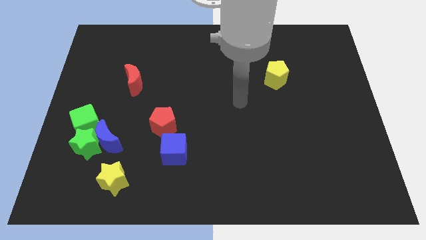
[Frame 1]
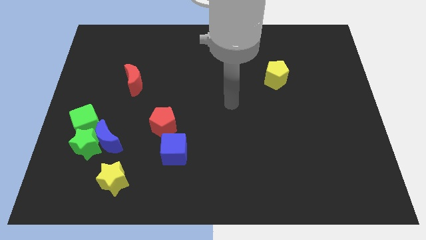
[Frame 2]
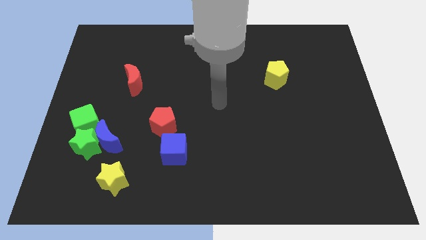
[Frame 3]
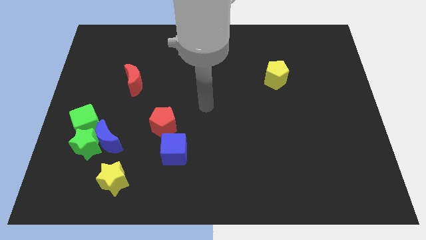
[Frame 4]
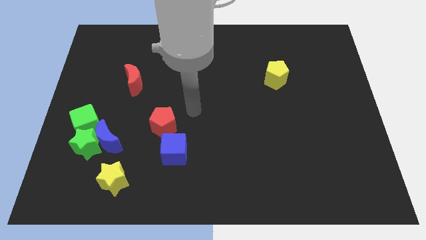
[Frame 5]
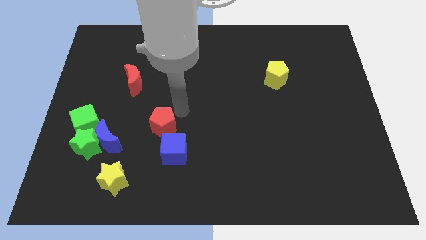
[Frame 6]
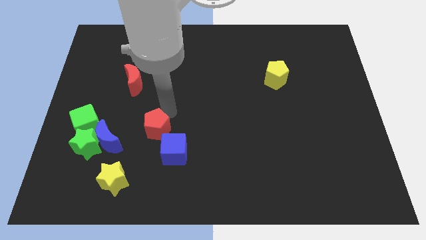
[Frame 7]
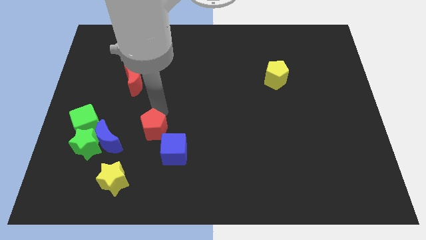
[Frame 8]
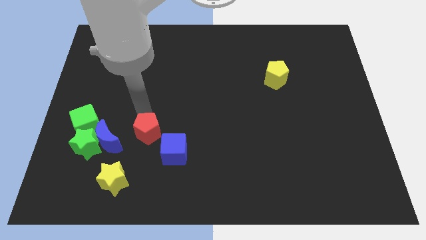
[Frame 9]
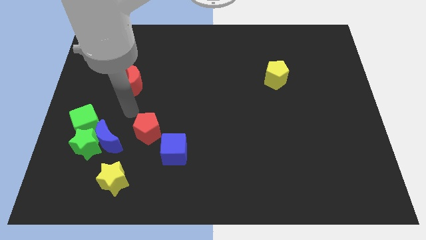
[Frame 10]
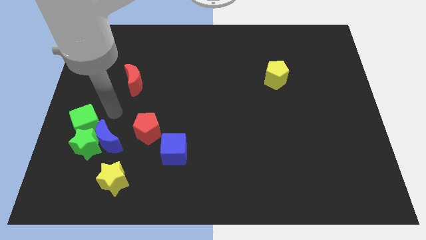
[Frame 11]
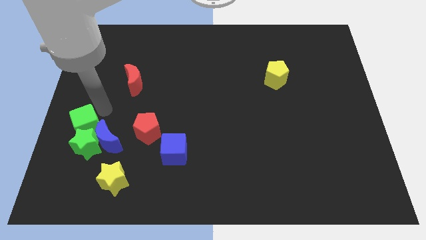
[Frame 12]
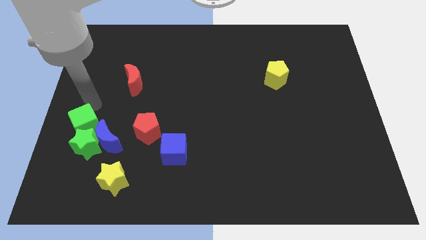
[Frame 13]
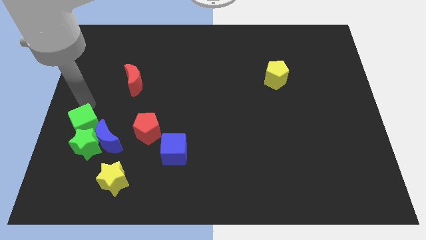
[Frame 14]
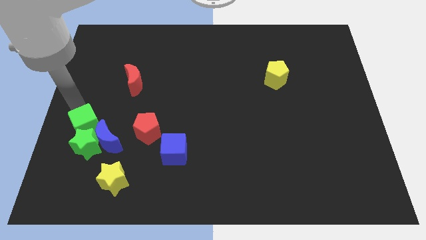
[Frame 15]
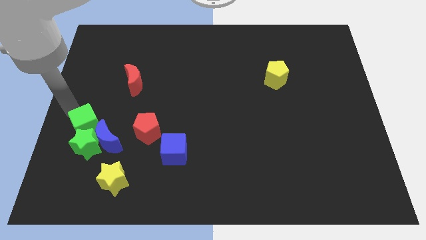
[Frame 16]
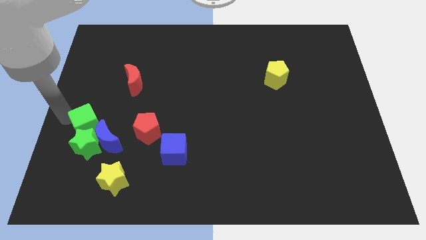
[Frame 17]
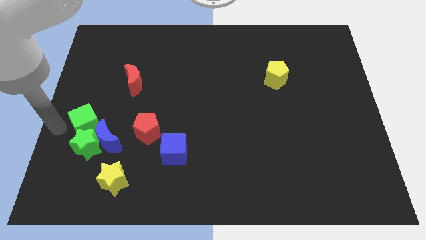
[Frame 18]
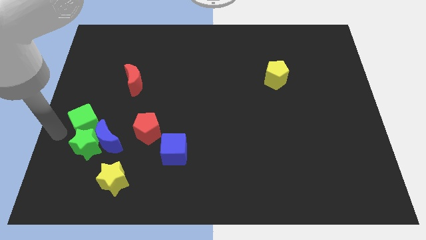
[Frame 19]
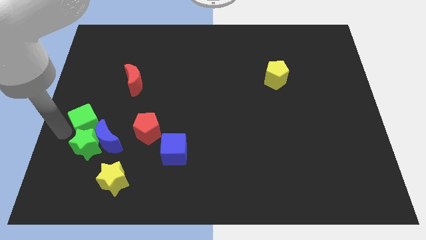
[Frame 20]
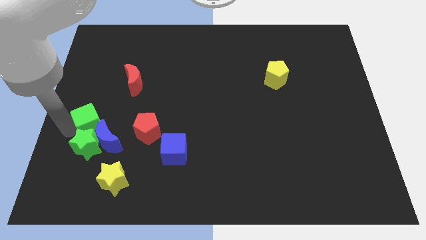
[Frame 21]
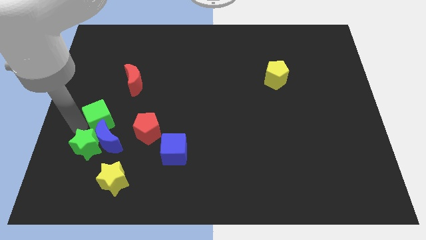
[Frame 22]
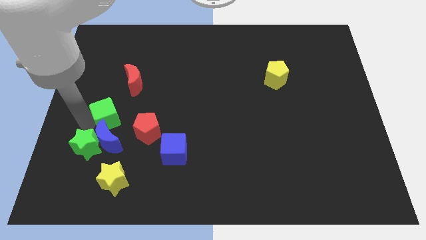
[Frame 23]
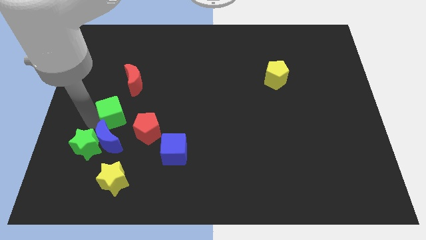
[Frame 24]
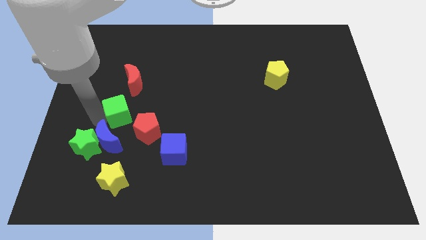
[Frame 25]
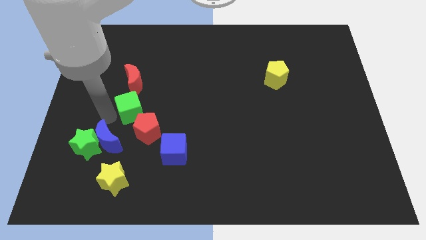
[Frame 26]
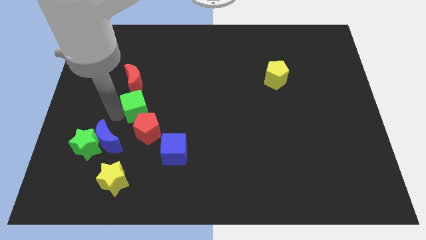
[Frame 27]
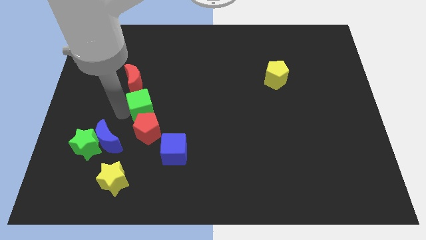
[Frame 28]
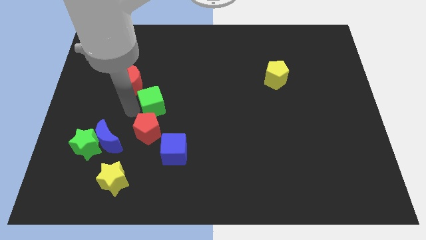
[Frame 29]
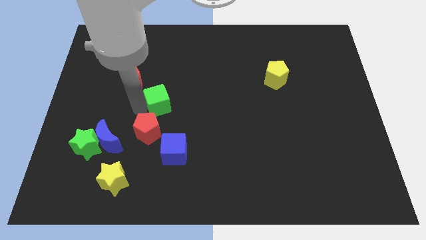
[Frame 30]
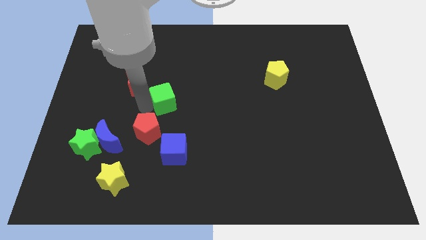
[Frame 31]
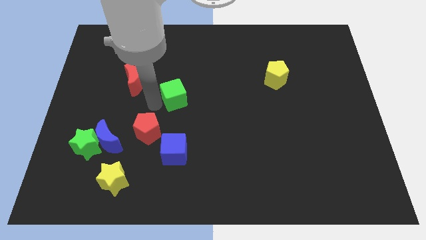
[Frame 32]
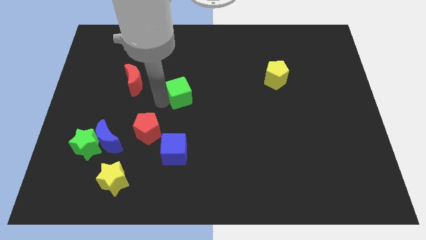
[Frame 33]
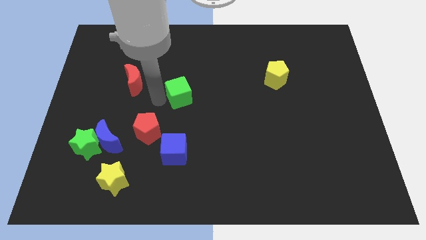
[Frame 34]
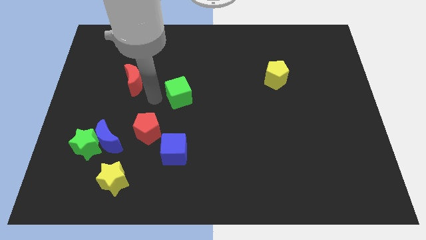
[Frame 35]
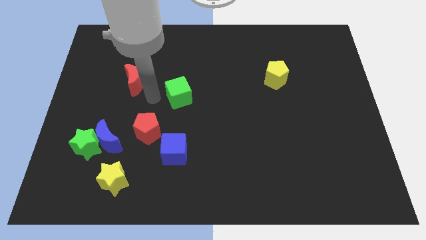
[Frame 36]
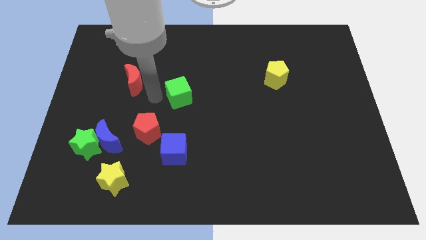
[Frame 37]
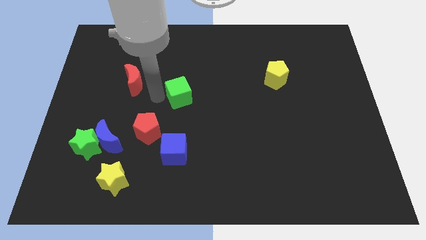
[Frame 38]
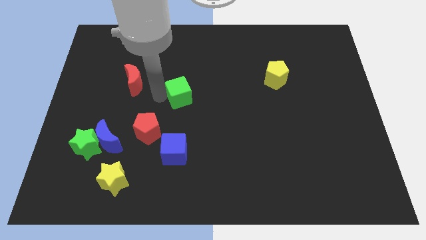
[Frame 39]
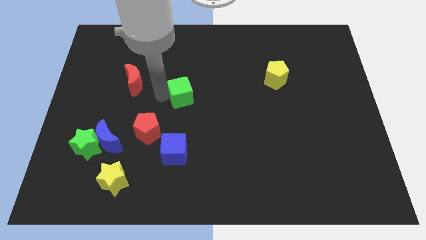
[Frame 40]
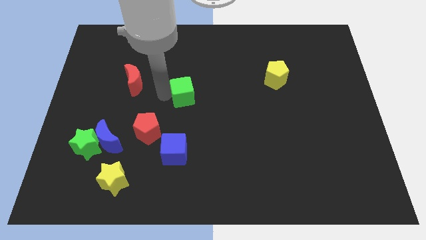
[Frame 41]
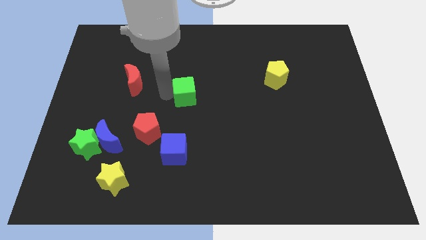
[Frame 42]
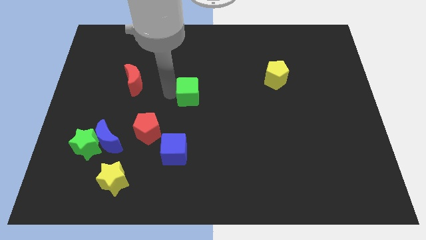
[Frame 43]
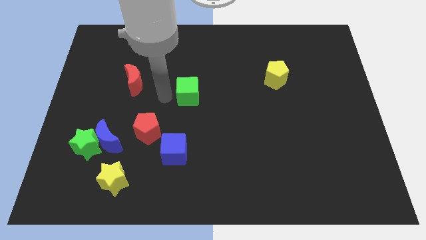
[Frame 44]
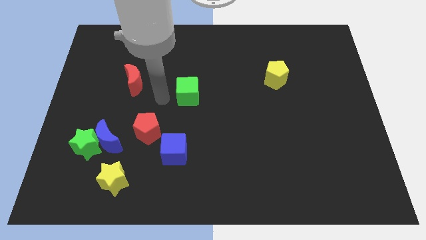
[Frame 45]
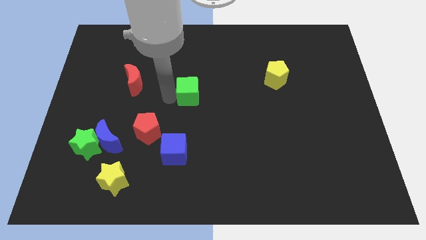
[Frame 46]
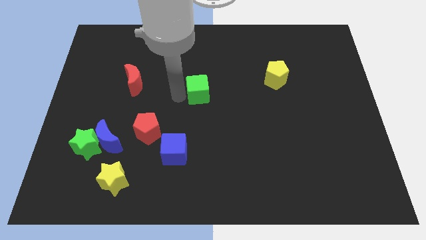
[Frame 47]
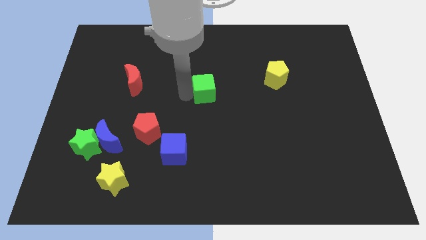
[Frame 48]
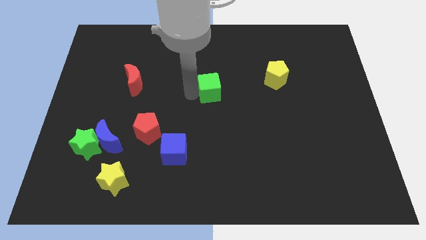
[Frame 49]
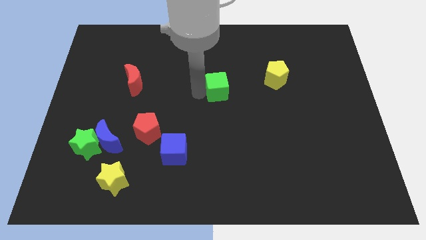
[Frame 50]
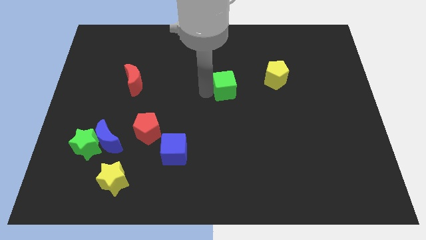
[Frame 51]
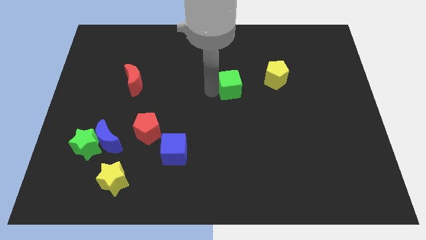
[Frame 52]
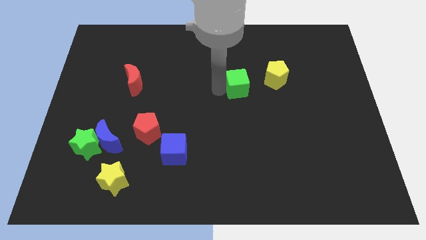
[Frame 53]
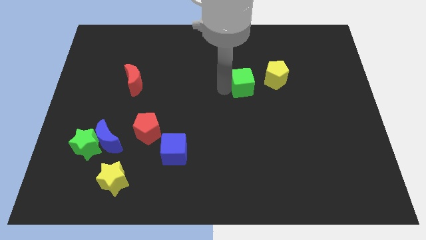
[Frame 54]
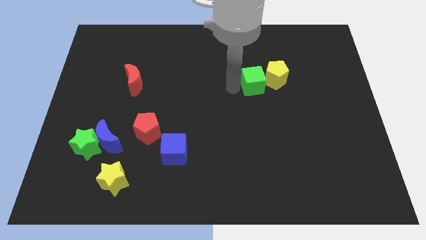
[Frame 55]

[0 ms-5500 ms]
push the green cube towards the yellow pentagon

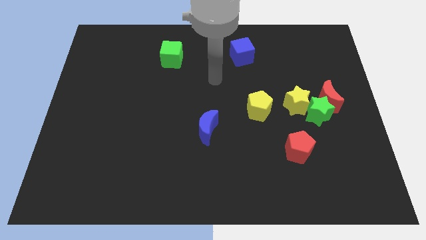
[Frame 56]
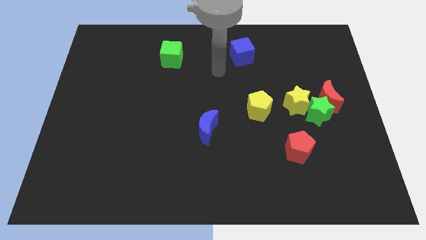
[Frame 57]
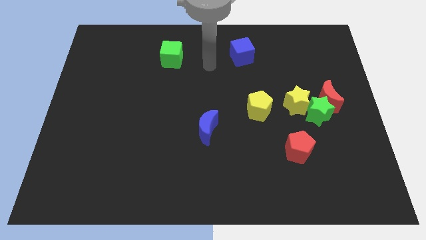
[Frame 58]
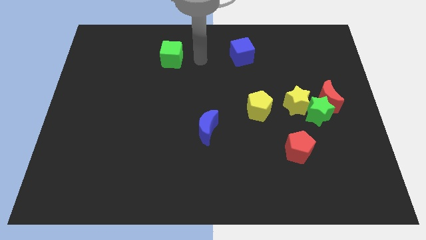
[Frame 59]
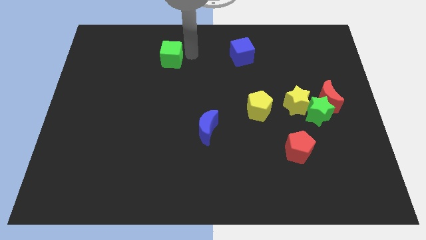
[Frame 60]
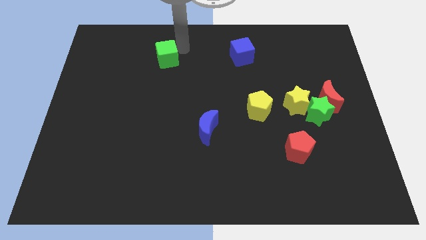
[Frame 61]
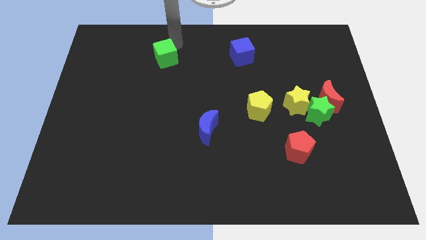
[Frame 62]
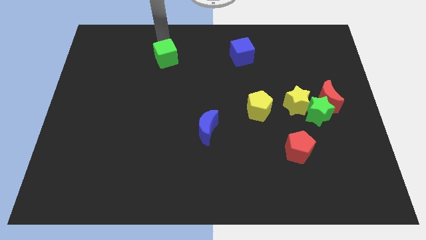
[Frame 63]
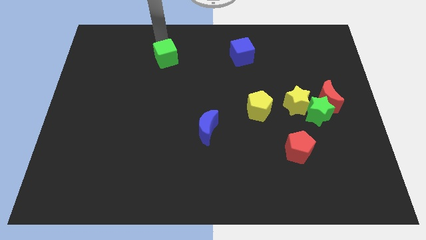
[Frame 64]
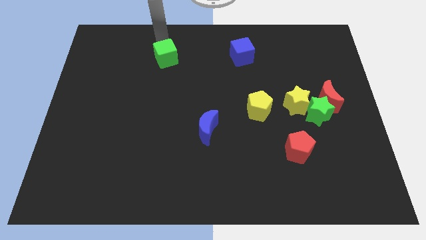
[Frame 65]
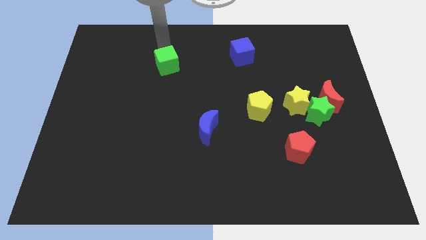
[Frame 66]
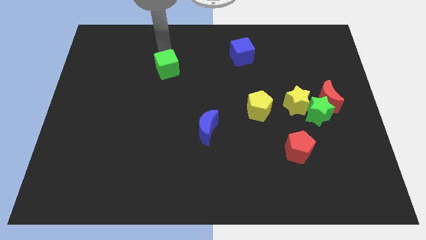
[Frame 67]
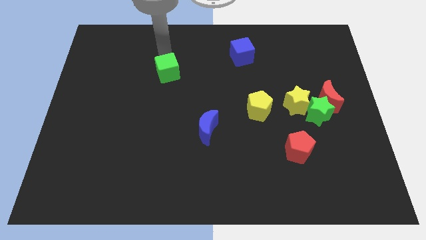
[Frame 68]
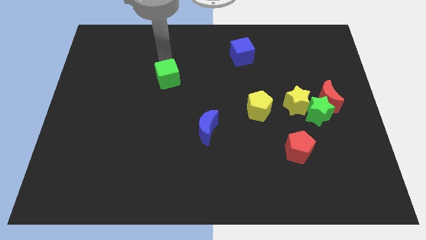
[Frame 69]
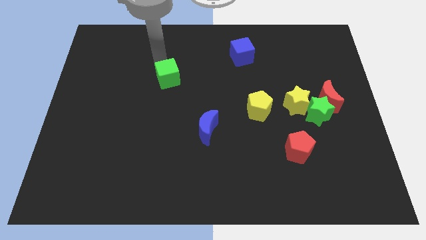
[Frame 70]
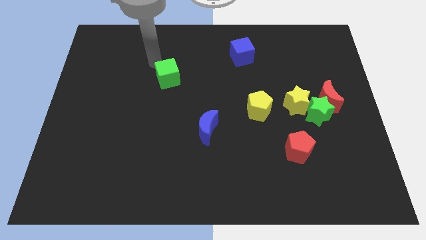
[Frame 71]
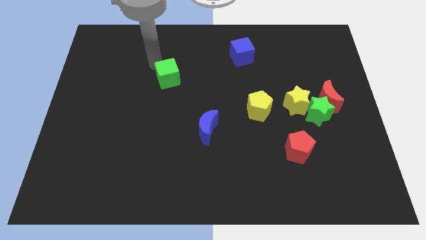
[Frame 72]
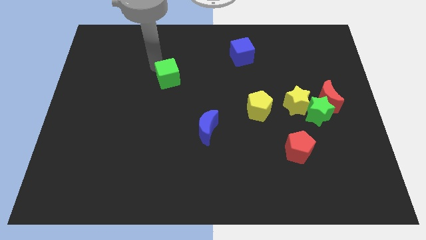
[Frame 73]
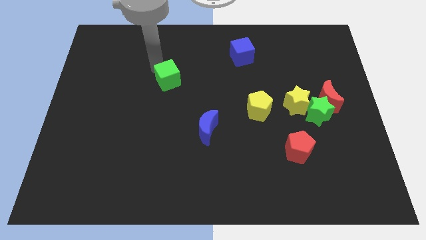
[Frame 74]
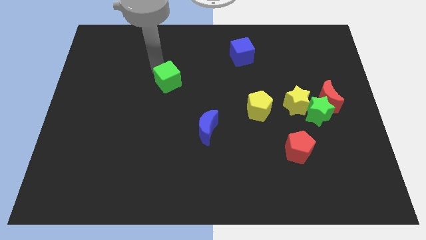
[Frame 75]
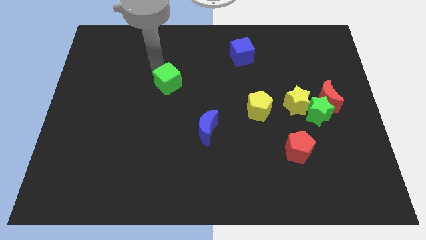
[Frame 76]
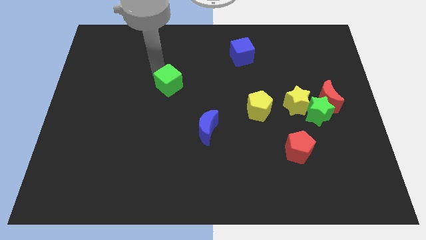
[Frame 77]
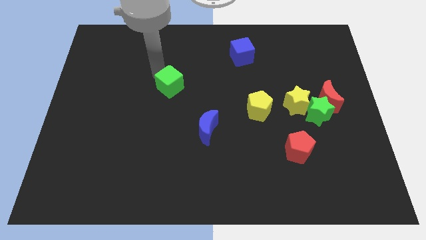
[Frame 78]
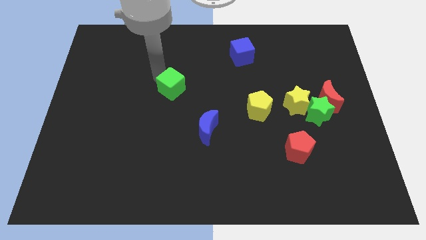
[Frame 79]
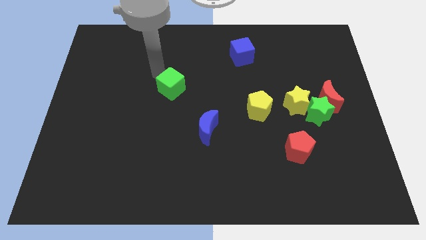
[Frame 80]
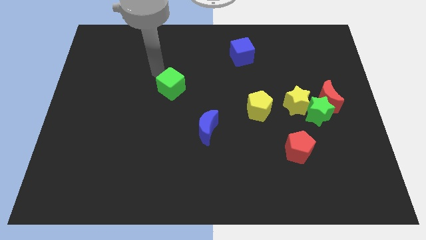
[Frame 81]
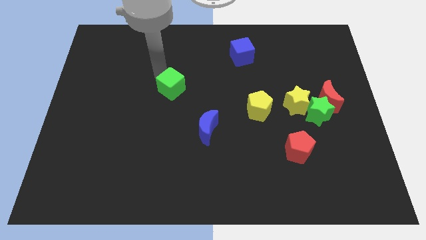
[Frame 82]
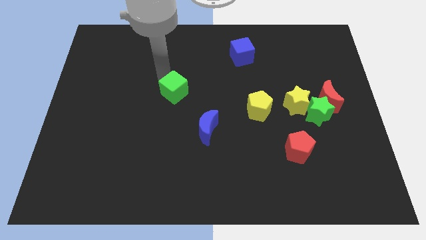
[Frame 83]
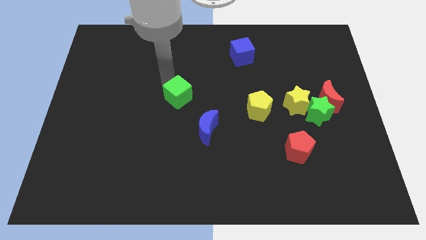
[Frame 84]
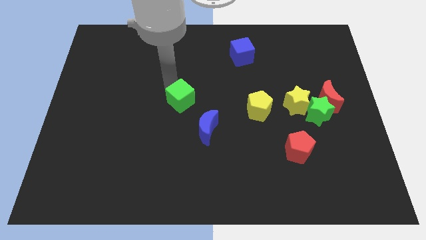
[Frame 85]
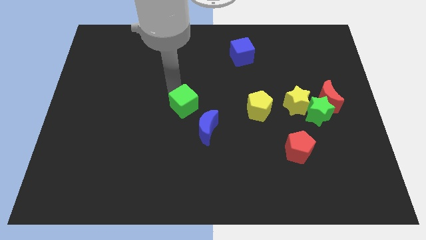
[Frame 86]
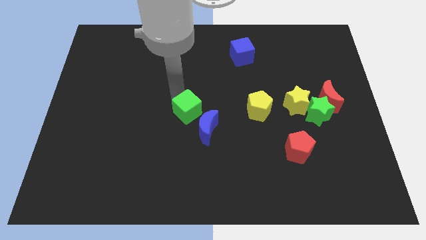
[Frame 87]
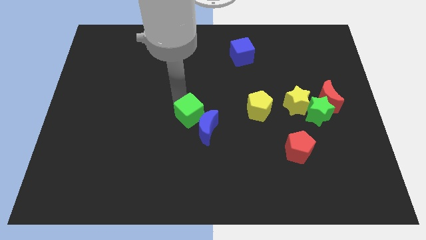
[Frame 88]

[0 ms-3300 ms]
move the green cube close to the blue moon
